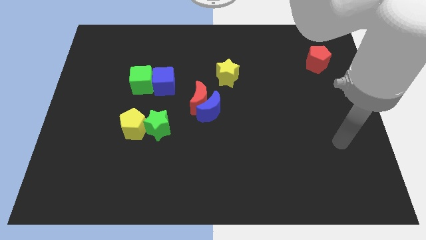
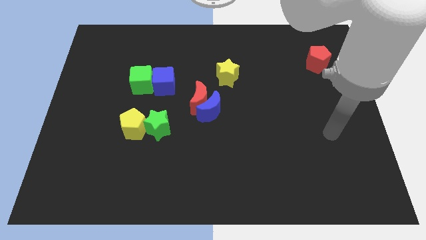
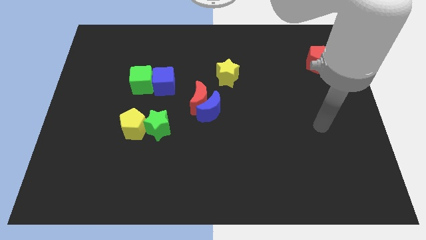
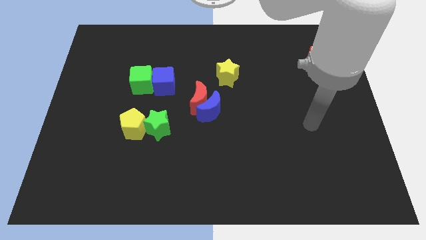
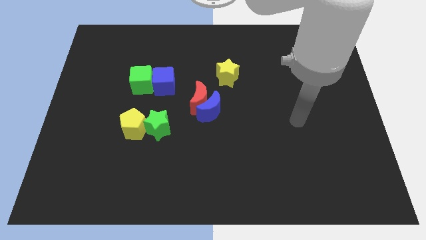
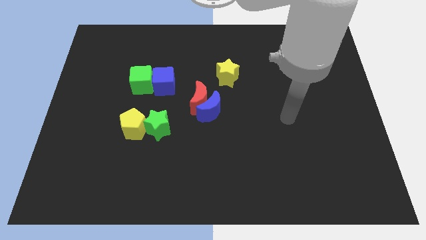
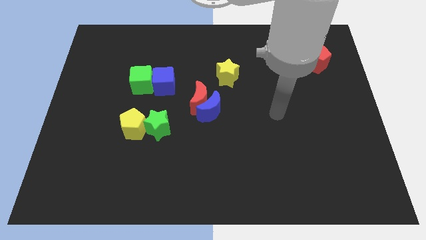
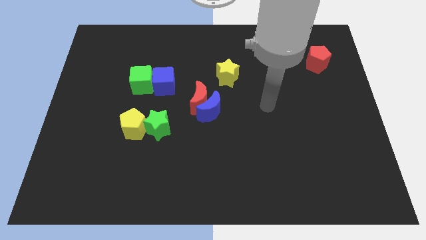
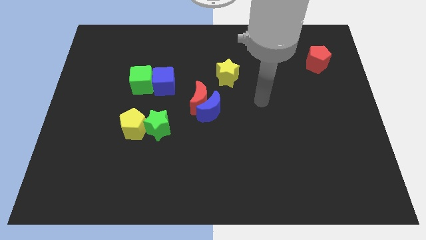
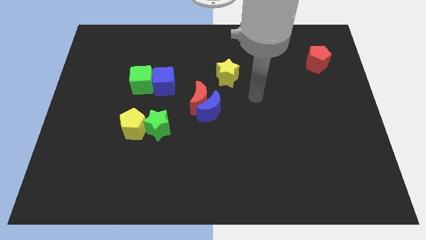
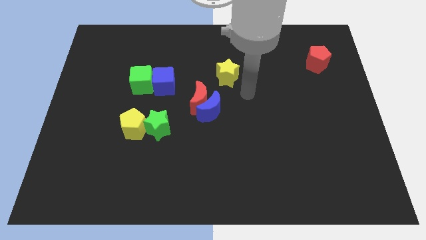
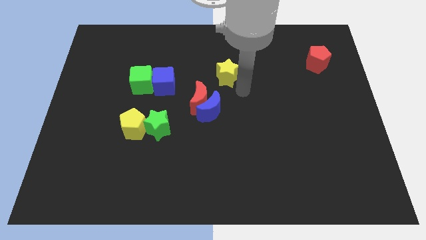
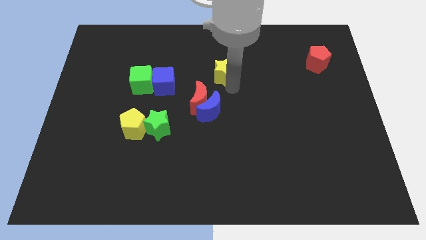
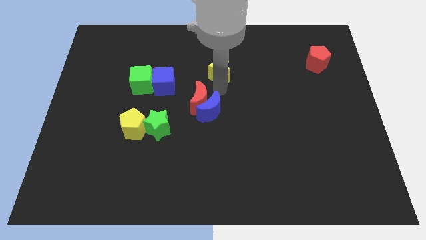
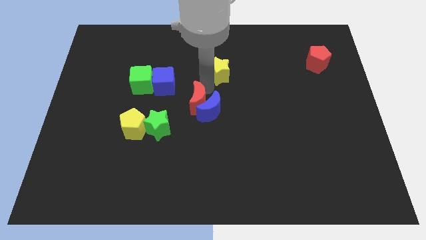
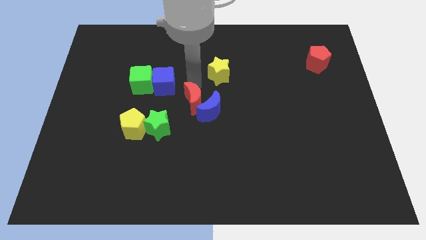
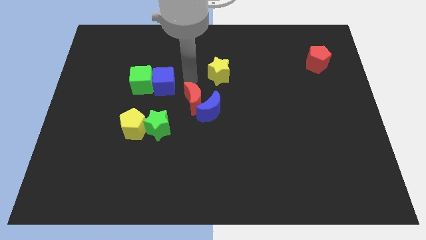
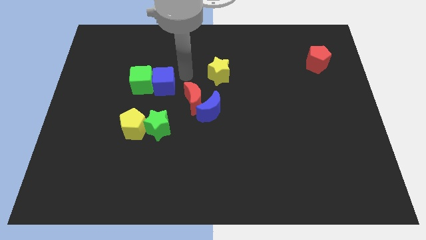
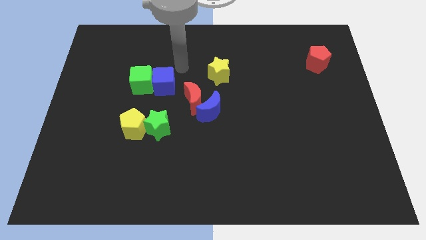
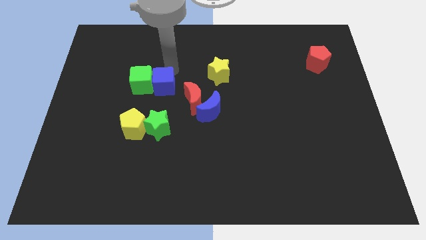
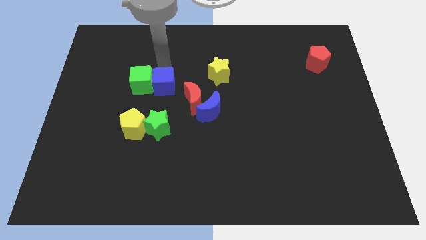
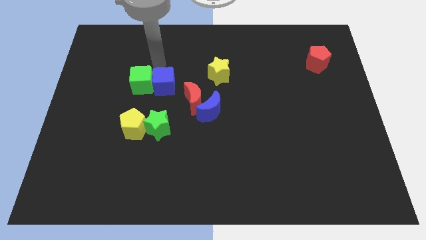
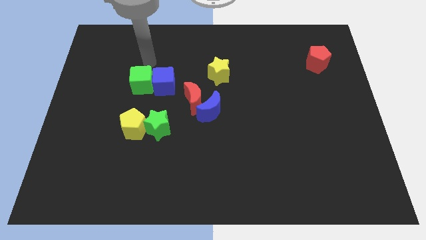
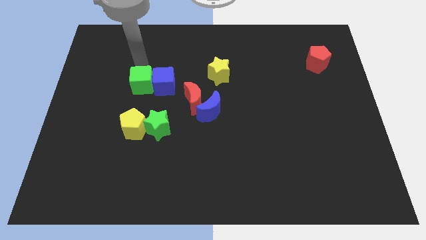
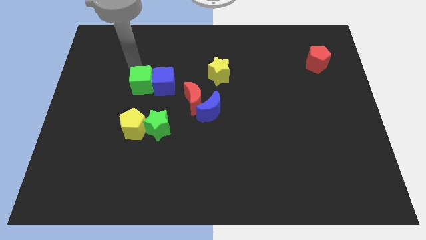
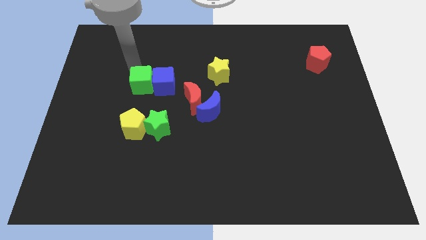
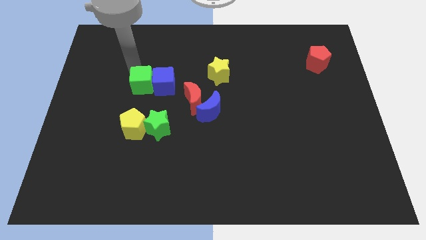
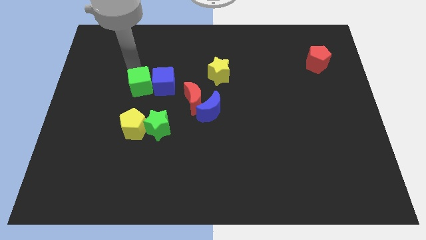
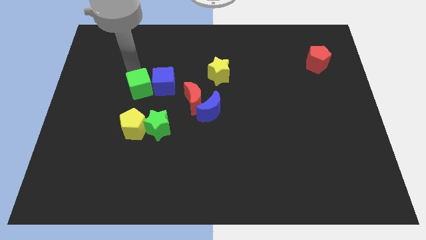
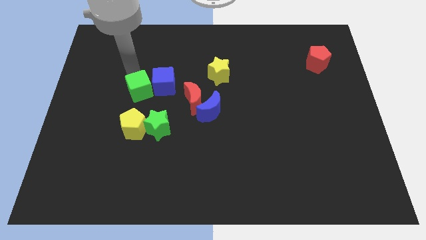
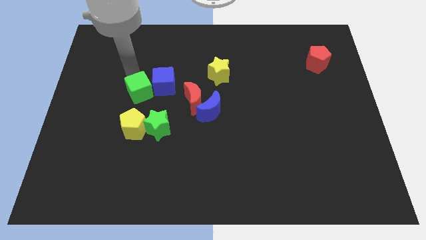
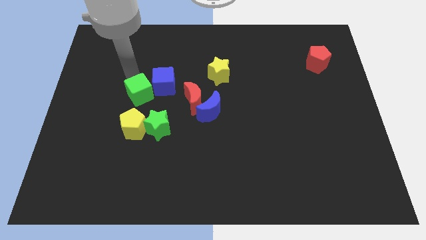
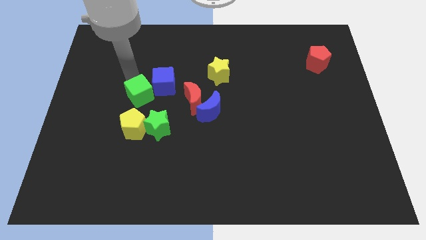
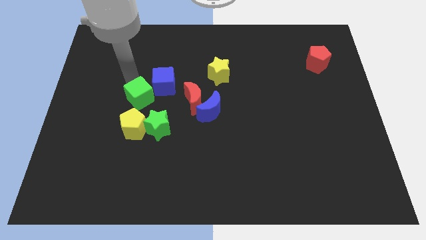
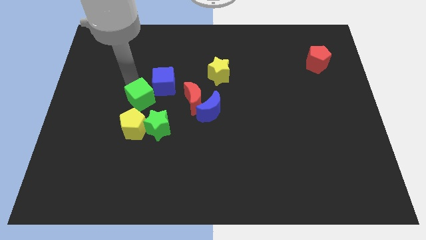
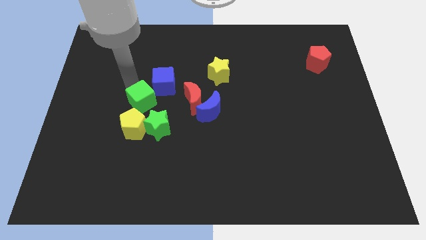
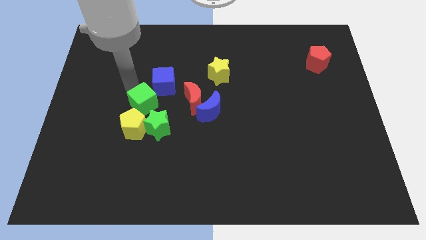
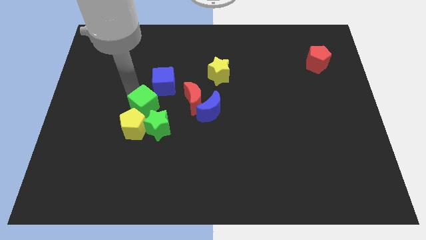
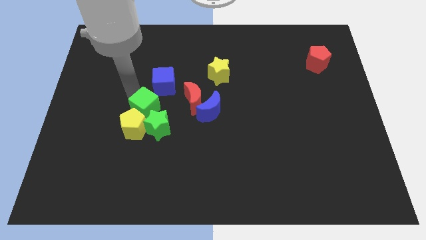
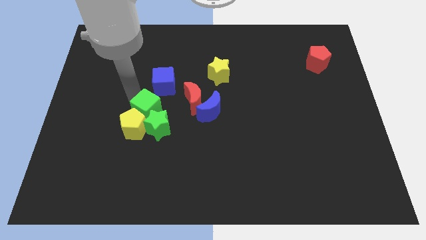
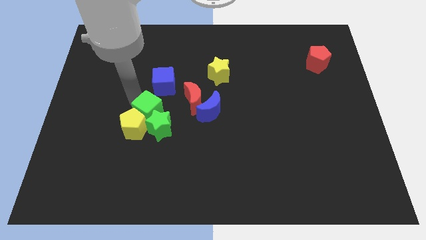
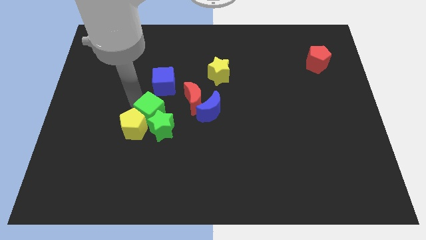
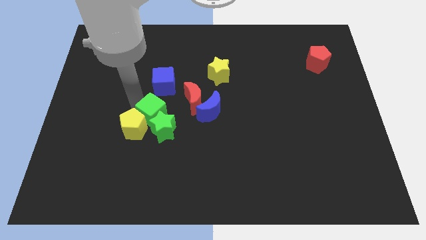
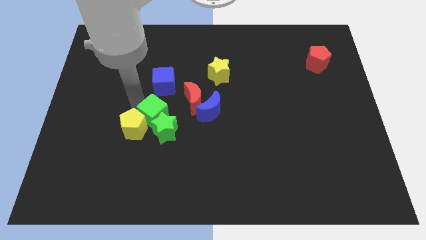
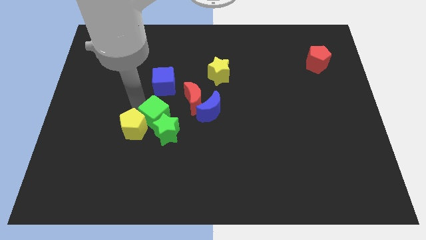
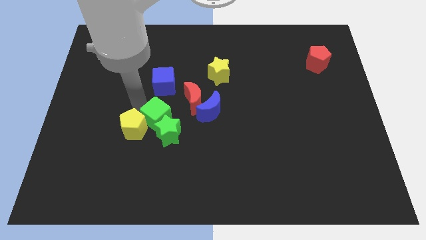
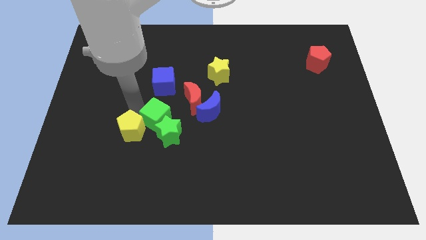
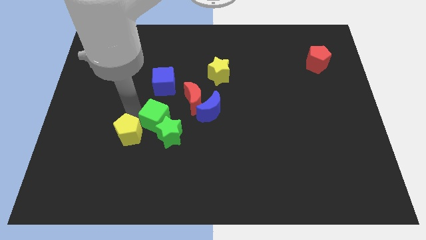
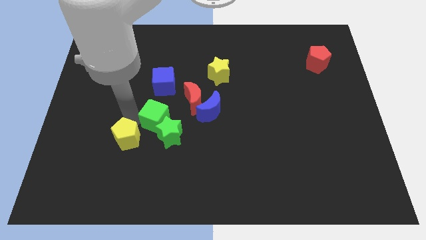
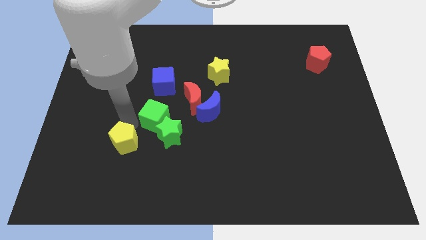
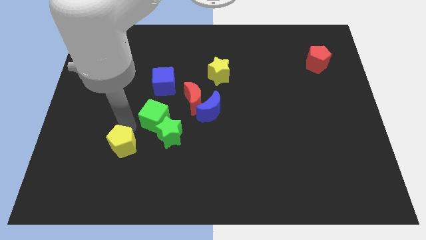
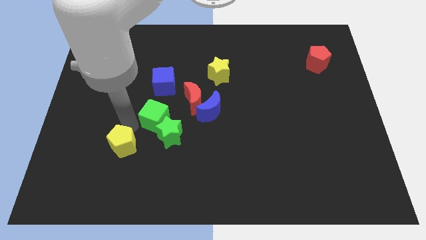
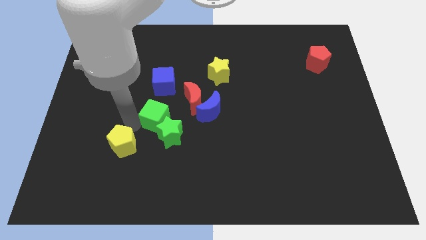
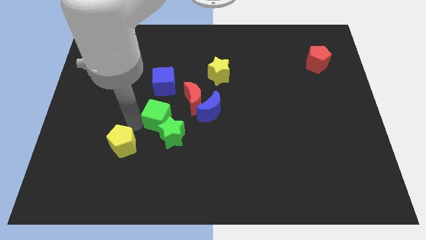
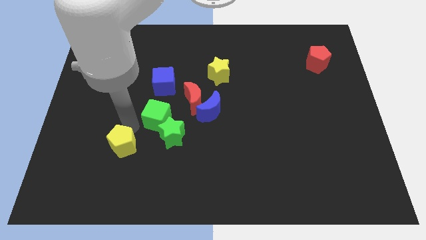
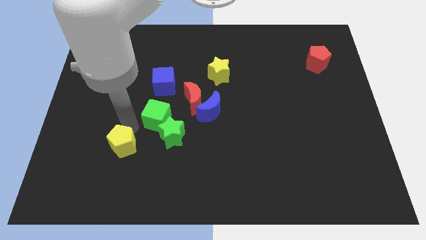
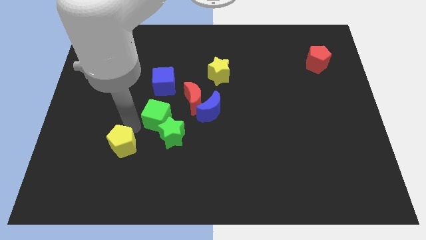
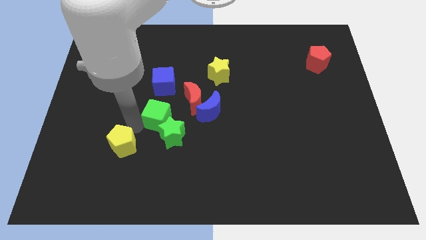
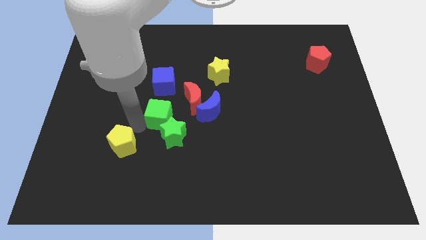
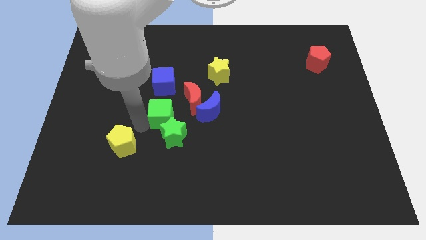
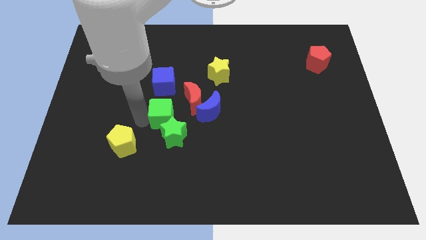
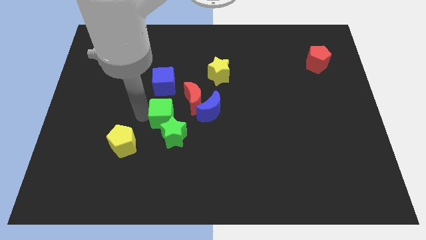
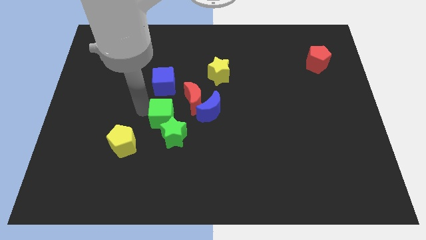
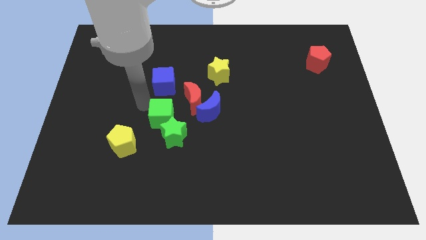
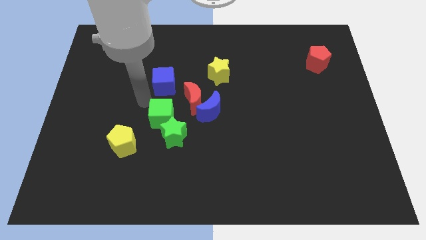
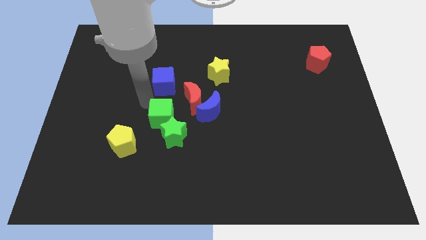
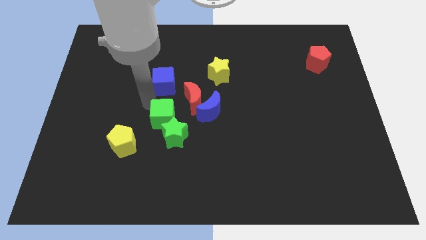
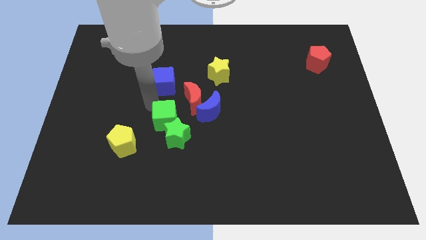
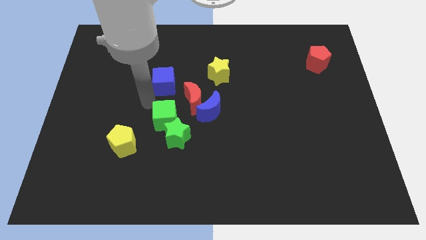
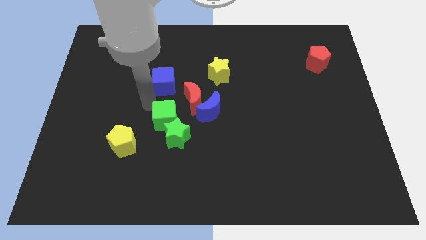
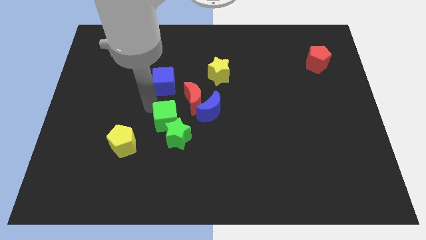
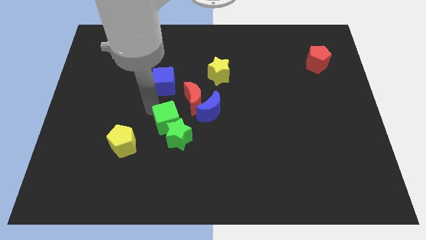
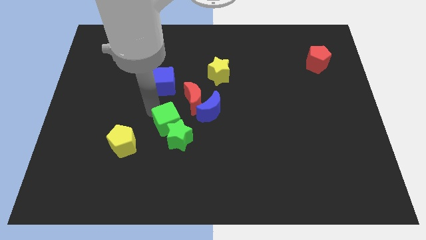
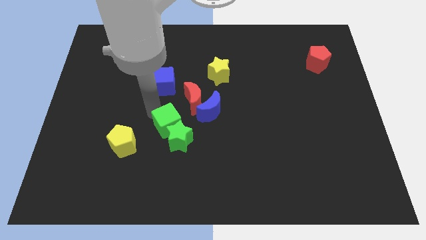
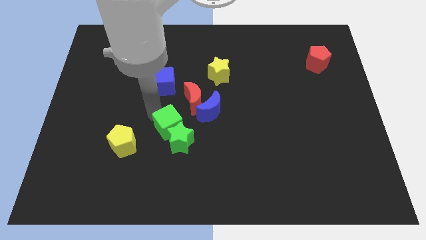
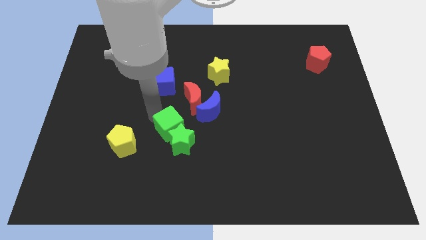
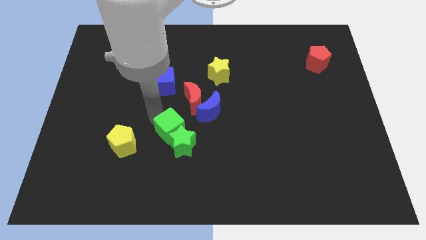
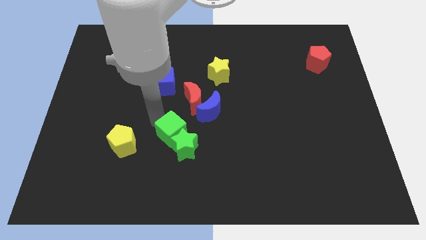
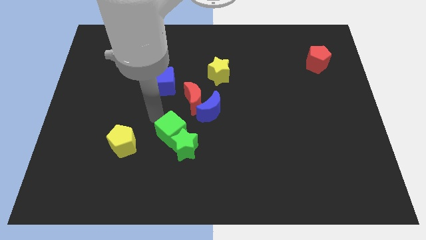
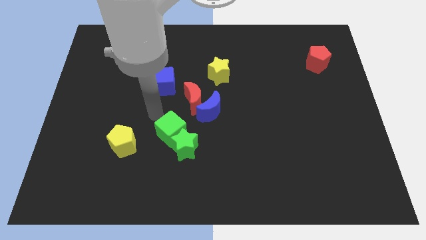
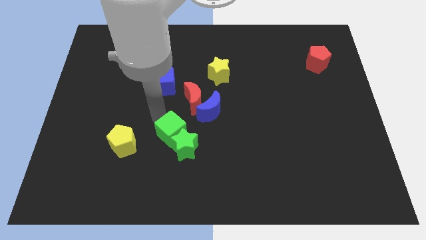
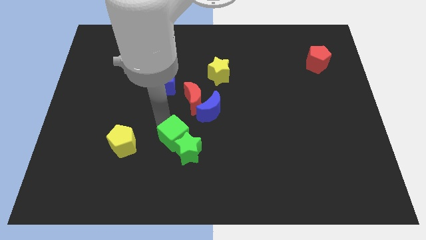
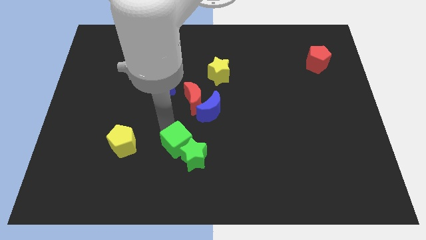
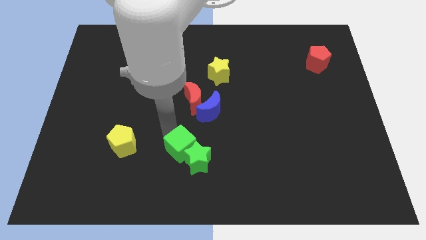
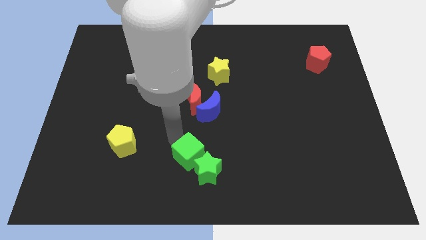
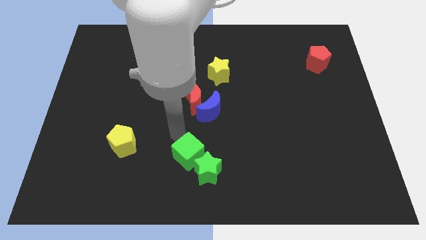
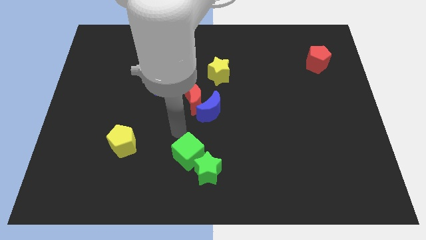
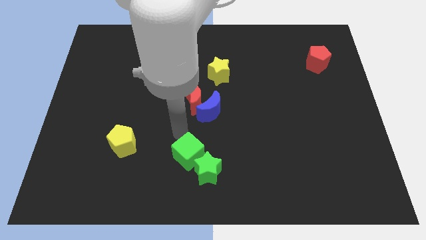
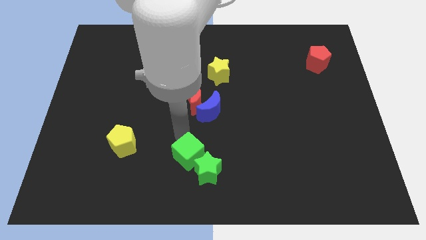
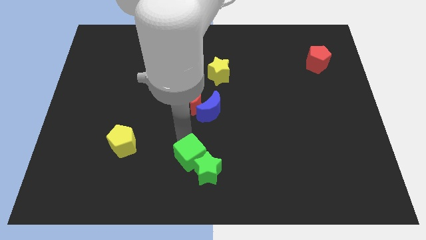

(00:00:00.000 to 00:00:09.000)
put the green cube to the bottom
